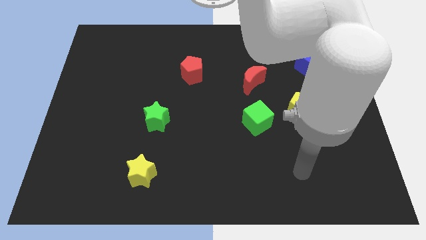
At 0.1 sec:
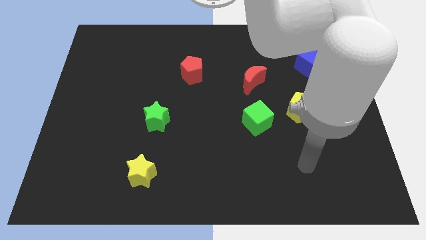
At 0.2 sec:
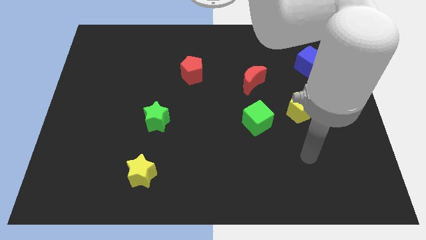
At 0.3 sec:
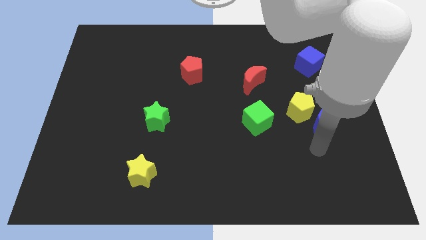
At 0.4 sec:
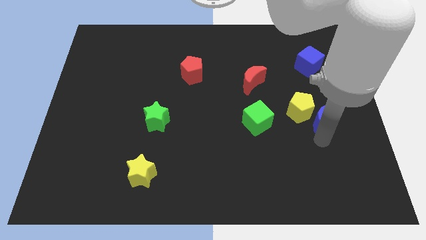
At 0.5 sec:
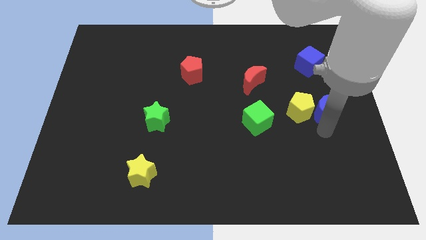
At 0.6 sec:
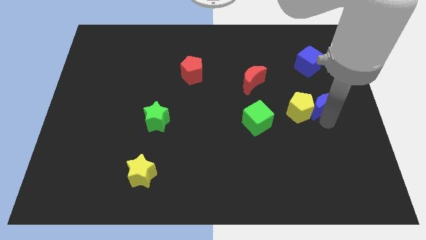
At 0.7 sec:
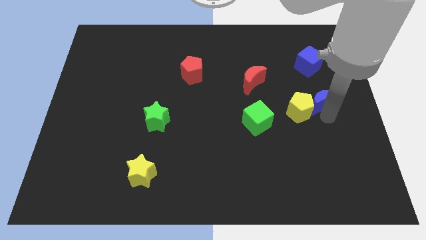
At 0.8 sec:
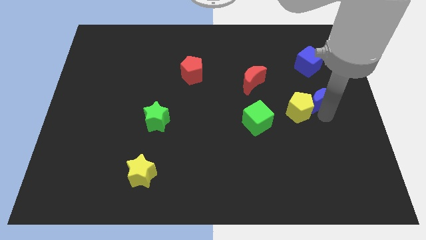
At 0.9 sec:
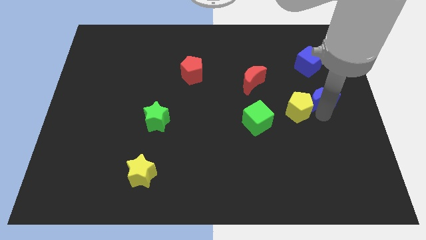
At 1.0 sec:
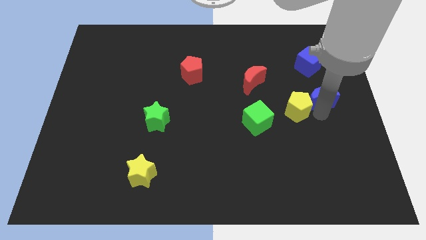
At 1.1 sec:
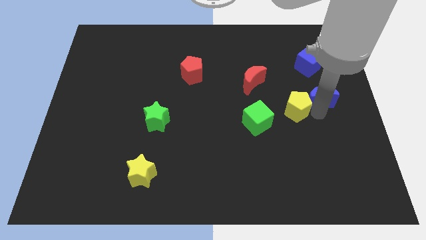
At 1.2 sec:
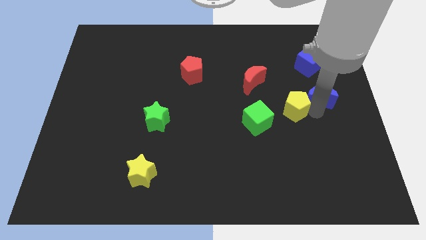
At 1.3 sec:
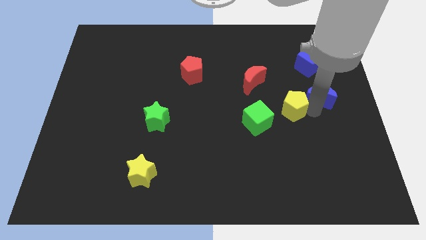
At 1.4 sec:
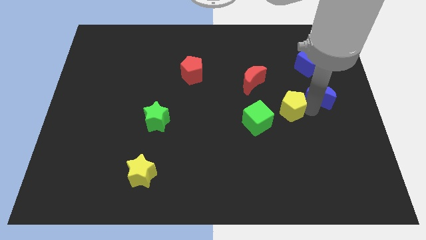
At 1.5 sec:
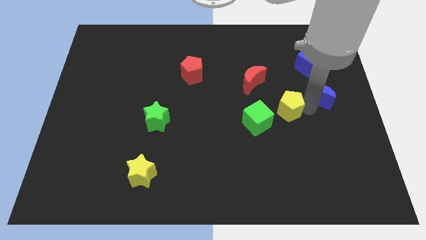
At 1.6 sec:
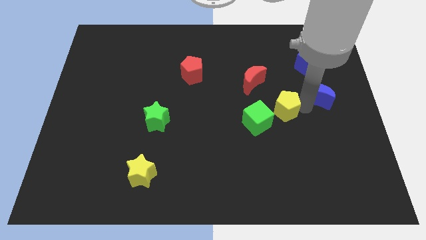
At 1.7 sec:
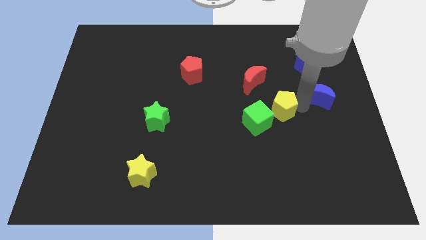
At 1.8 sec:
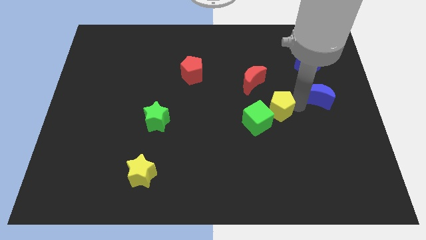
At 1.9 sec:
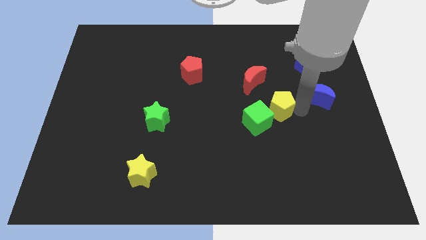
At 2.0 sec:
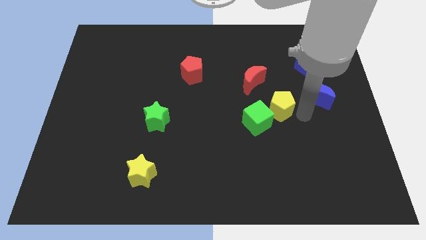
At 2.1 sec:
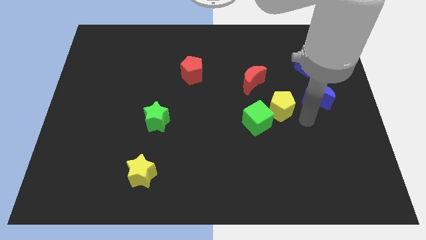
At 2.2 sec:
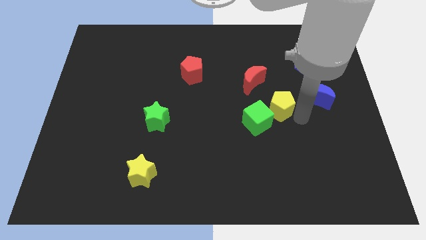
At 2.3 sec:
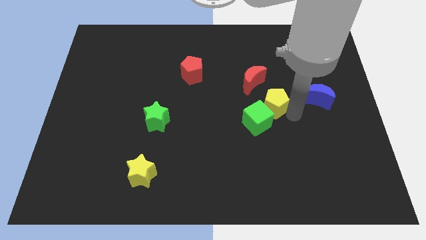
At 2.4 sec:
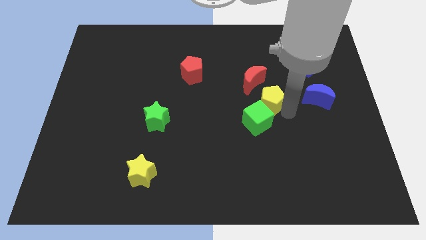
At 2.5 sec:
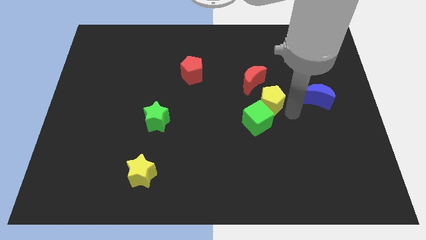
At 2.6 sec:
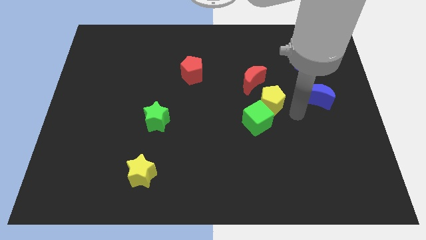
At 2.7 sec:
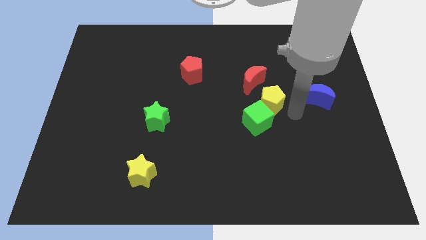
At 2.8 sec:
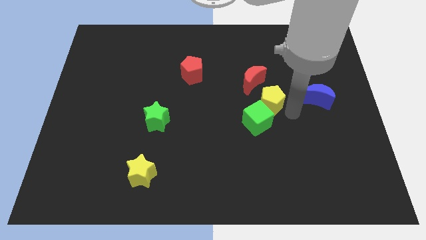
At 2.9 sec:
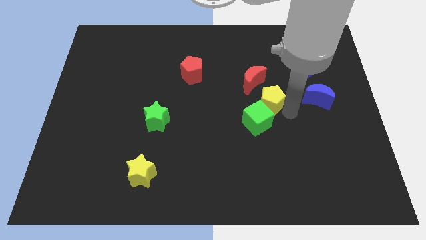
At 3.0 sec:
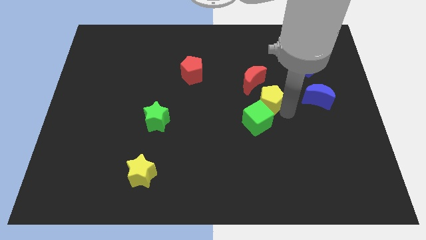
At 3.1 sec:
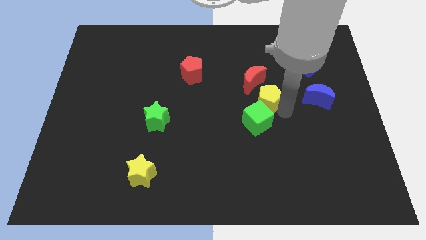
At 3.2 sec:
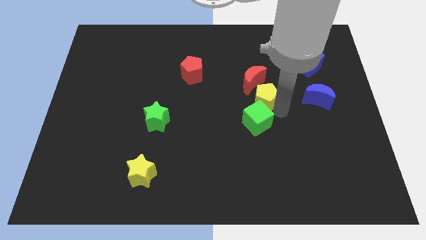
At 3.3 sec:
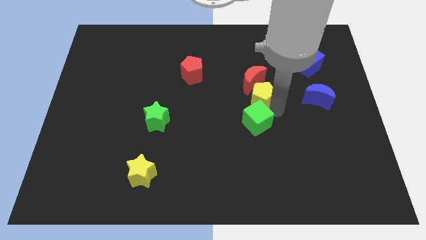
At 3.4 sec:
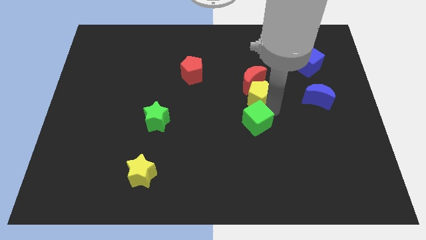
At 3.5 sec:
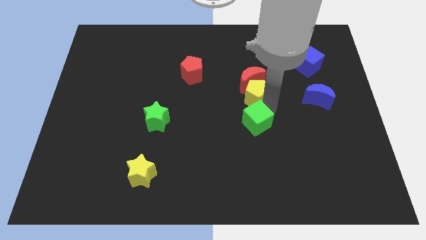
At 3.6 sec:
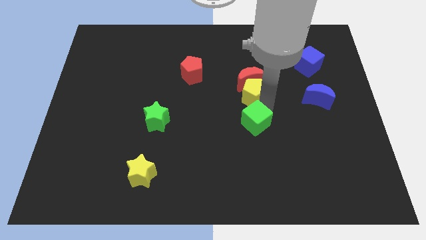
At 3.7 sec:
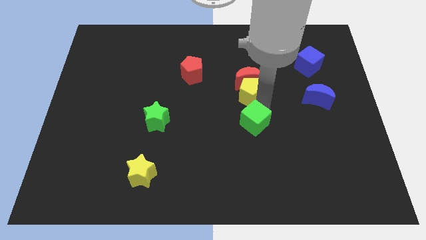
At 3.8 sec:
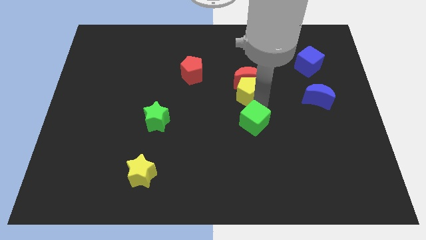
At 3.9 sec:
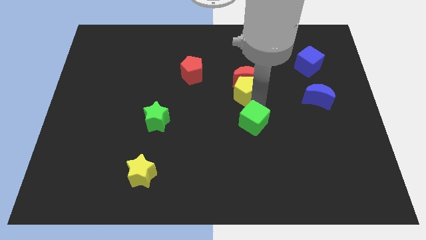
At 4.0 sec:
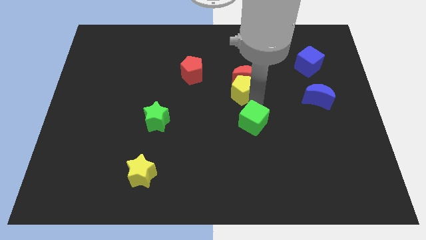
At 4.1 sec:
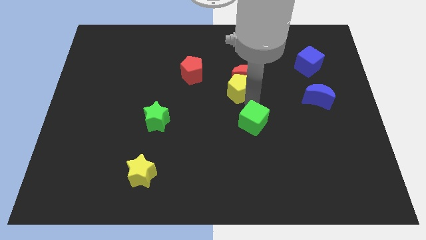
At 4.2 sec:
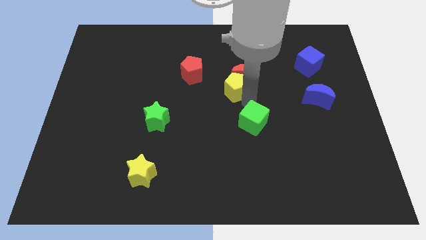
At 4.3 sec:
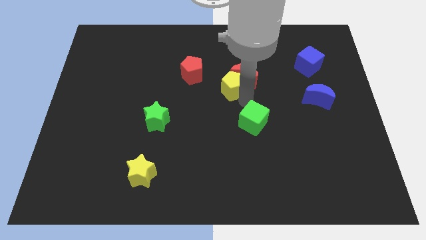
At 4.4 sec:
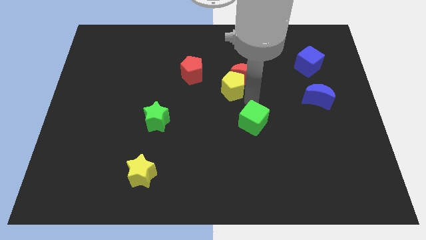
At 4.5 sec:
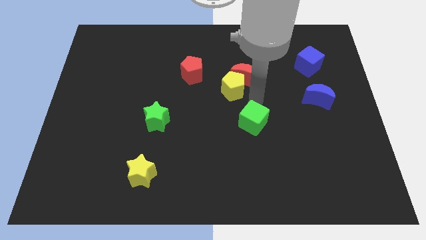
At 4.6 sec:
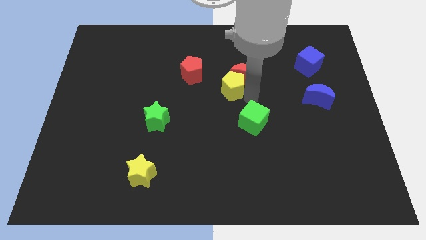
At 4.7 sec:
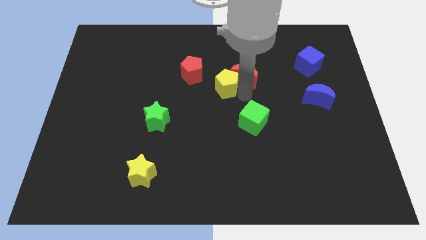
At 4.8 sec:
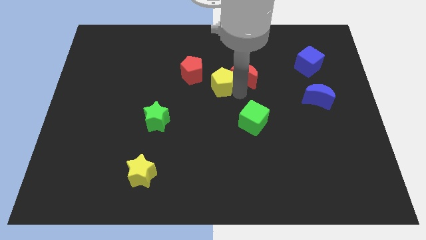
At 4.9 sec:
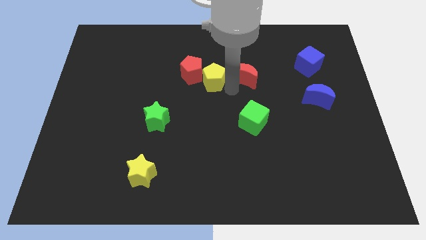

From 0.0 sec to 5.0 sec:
put the yellow pentagon next to the red pentagon

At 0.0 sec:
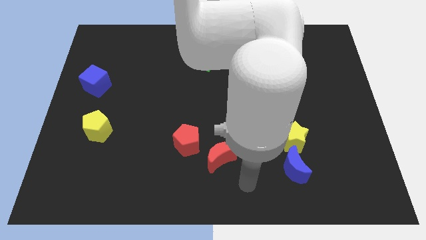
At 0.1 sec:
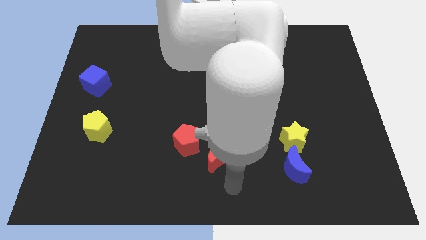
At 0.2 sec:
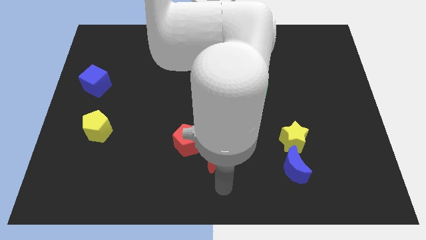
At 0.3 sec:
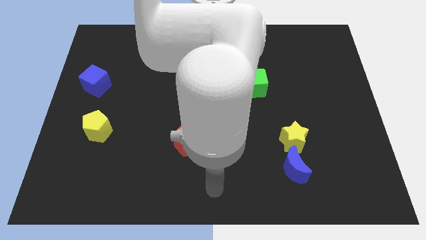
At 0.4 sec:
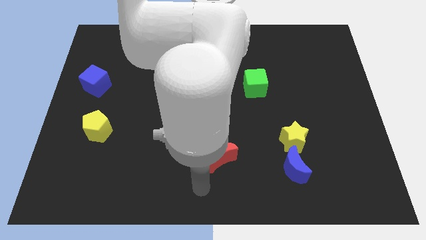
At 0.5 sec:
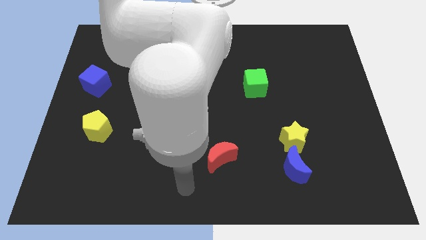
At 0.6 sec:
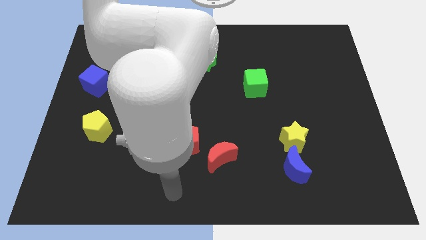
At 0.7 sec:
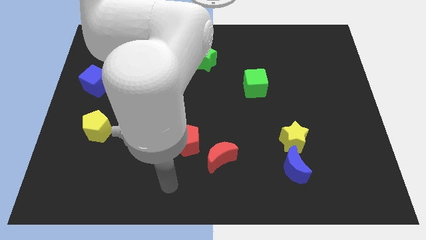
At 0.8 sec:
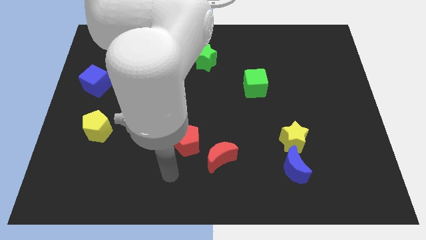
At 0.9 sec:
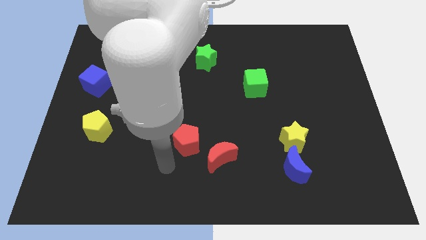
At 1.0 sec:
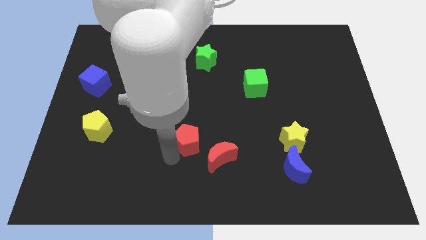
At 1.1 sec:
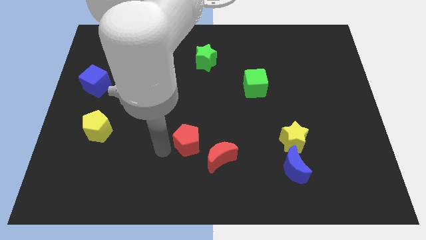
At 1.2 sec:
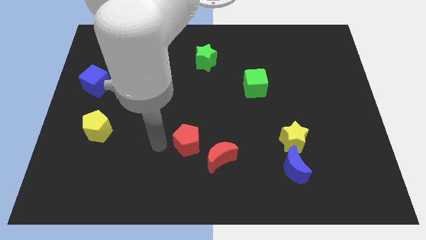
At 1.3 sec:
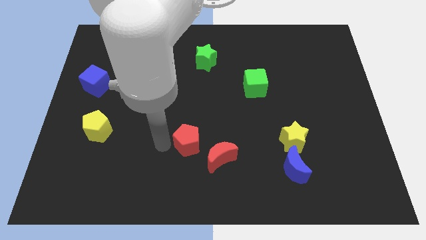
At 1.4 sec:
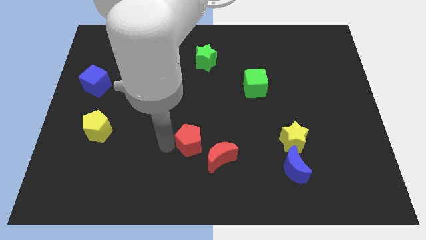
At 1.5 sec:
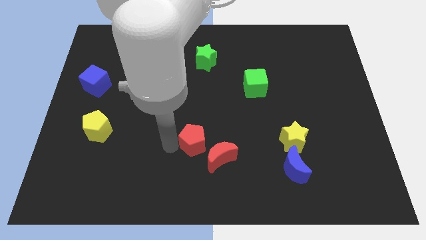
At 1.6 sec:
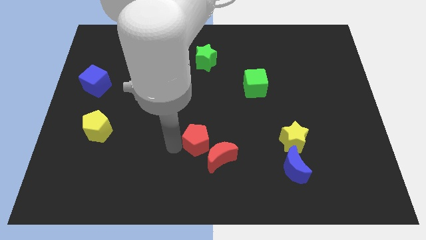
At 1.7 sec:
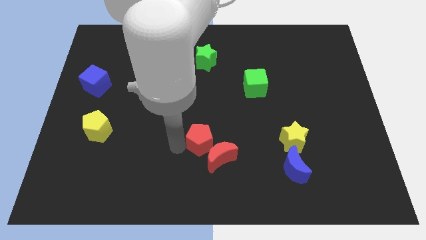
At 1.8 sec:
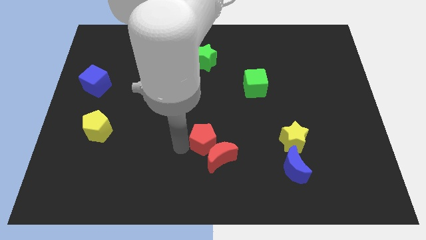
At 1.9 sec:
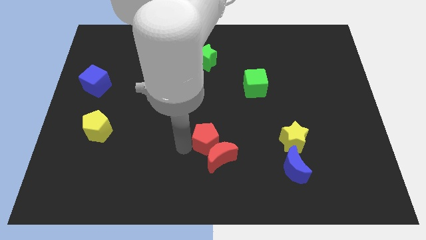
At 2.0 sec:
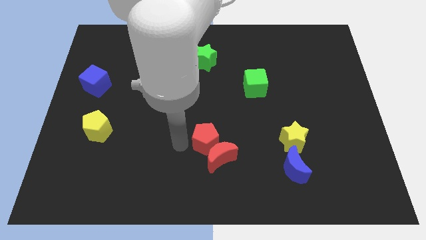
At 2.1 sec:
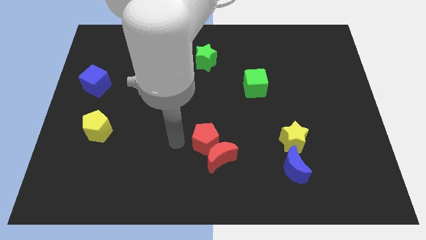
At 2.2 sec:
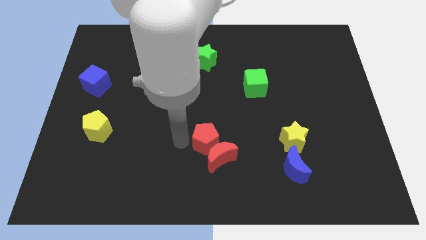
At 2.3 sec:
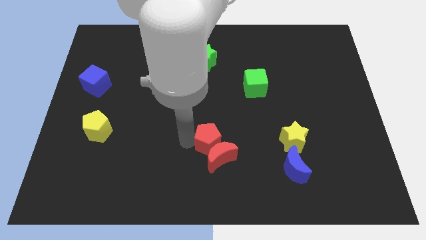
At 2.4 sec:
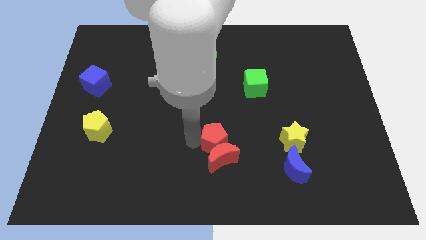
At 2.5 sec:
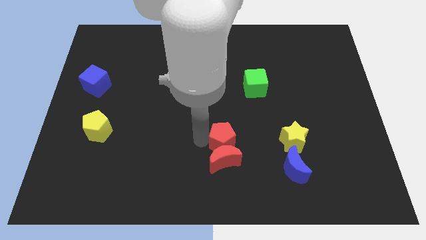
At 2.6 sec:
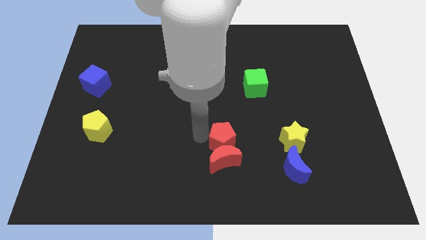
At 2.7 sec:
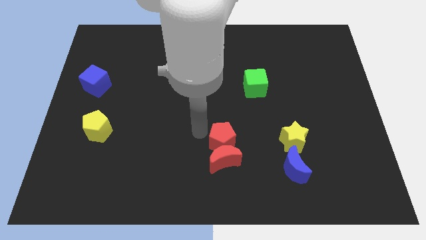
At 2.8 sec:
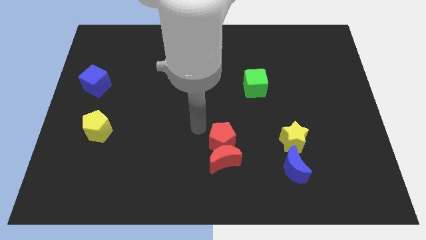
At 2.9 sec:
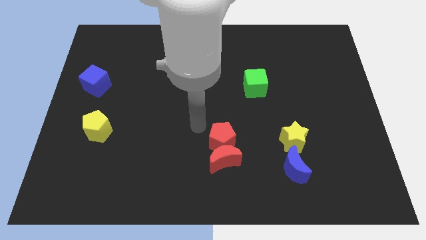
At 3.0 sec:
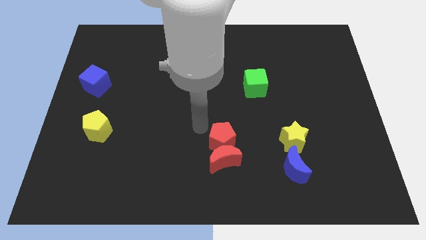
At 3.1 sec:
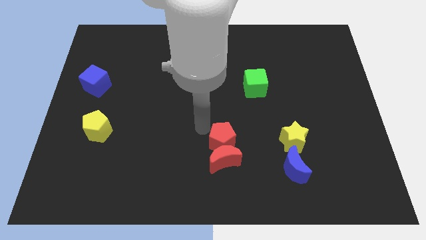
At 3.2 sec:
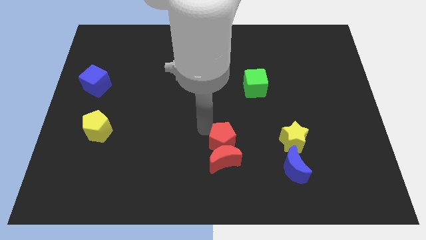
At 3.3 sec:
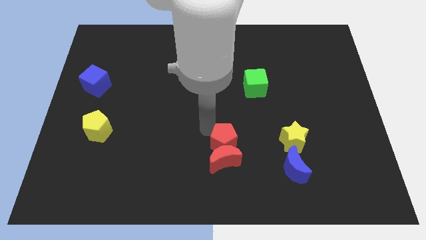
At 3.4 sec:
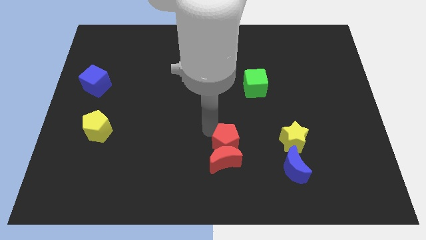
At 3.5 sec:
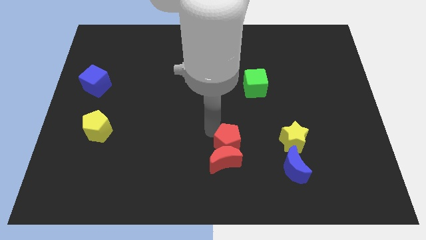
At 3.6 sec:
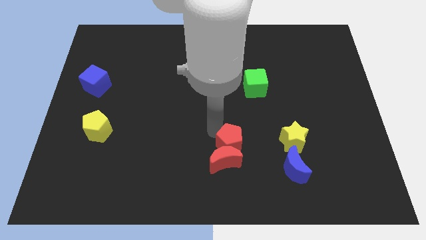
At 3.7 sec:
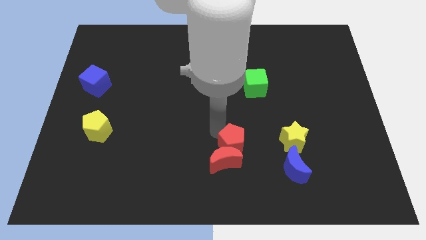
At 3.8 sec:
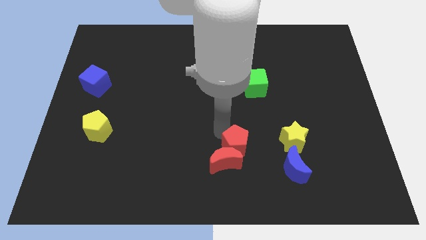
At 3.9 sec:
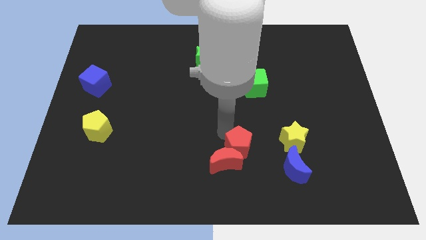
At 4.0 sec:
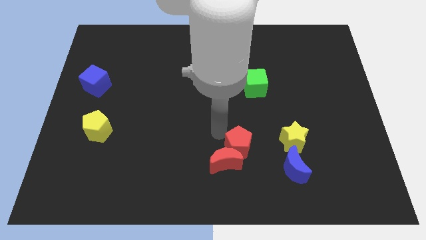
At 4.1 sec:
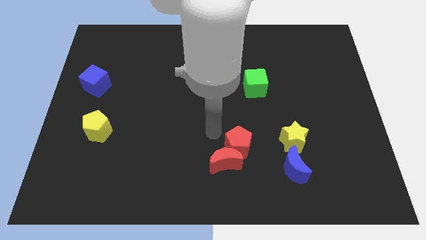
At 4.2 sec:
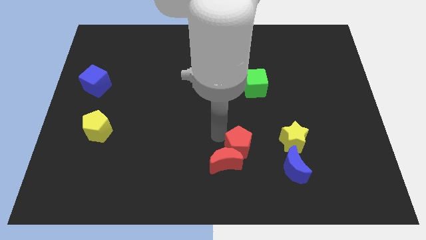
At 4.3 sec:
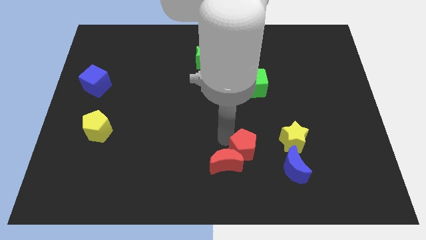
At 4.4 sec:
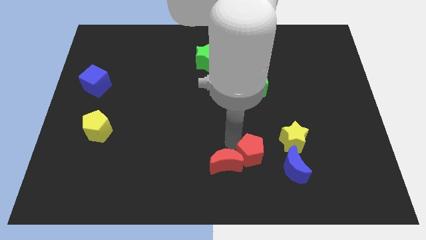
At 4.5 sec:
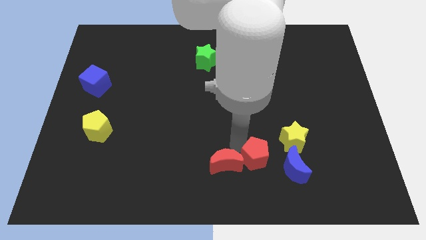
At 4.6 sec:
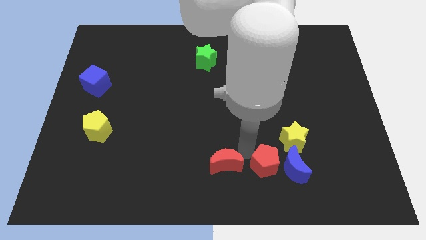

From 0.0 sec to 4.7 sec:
slide the red pentagon next to the blue moon
